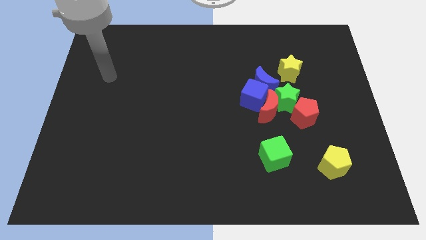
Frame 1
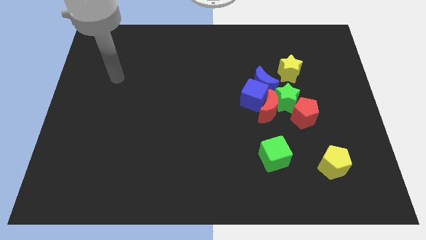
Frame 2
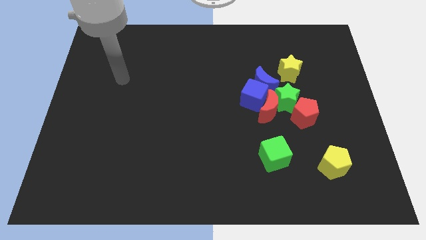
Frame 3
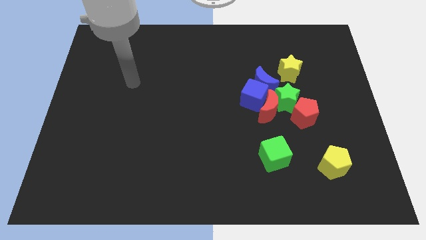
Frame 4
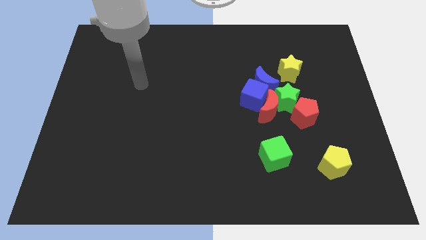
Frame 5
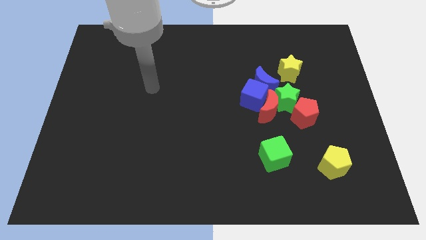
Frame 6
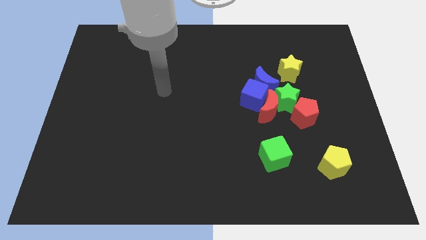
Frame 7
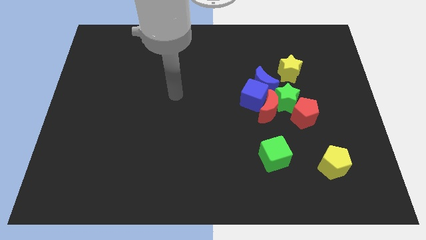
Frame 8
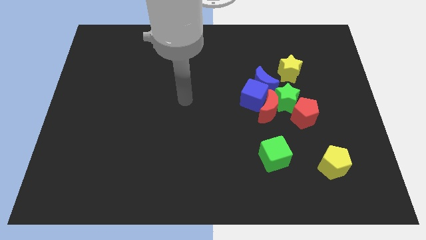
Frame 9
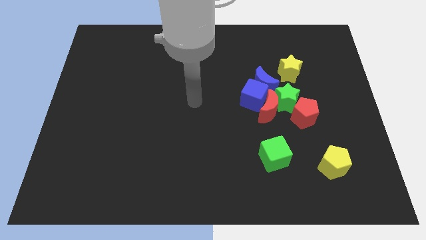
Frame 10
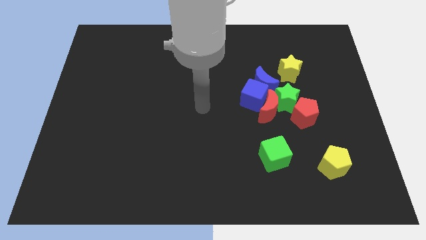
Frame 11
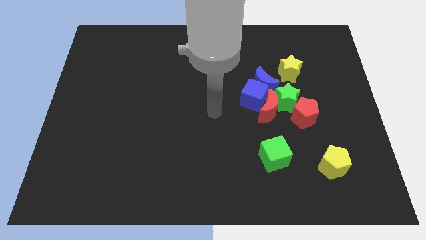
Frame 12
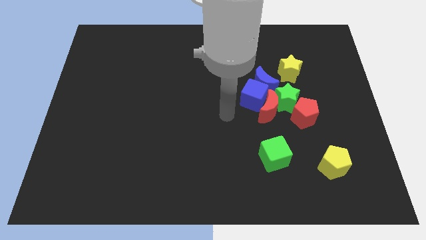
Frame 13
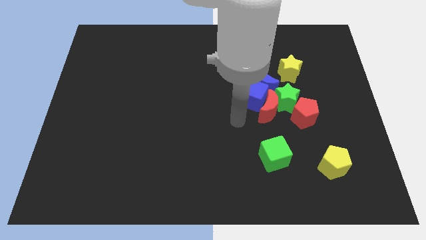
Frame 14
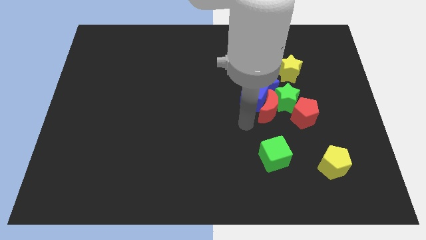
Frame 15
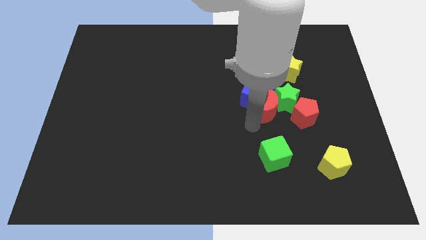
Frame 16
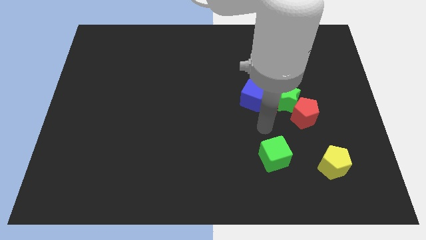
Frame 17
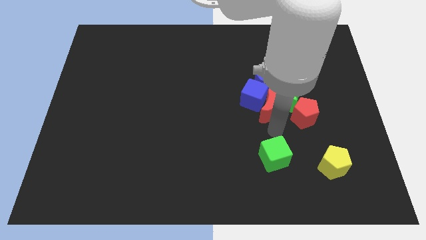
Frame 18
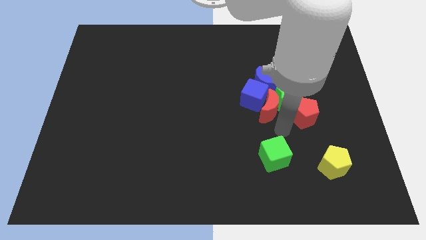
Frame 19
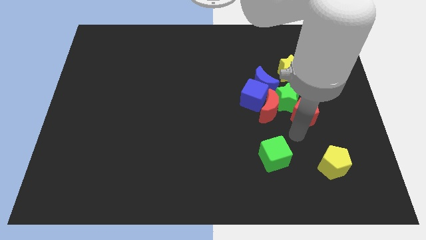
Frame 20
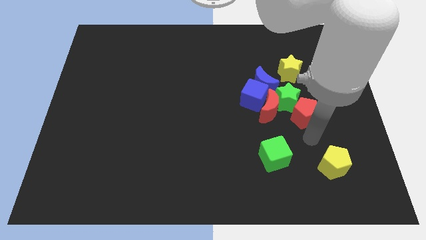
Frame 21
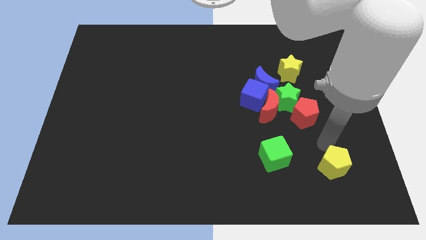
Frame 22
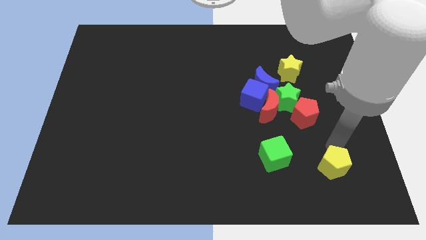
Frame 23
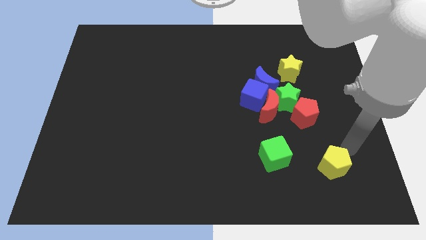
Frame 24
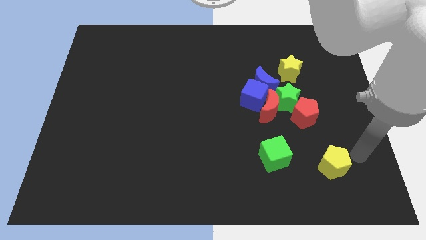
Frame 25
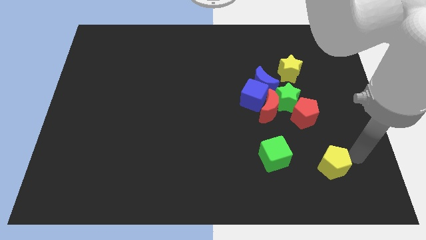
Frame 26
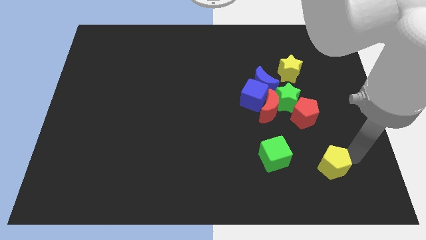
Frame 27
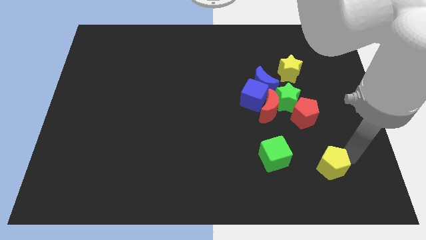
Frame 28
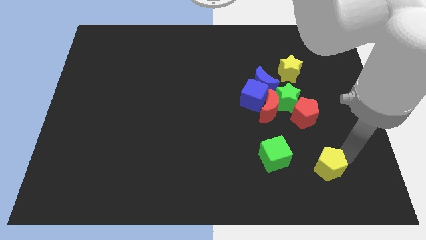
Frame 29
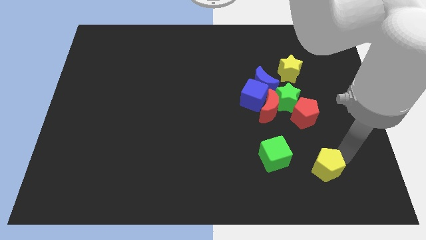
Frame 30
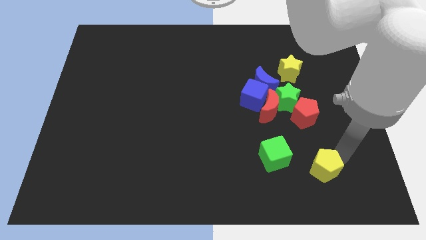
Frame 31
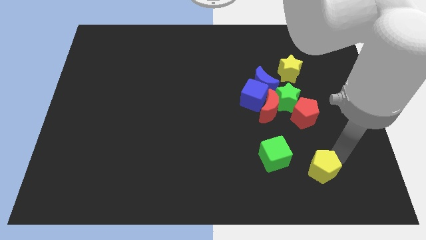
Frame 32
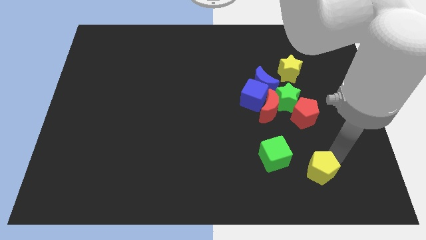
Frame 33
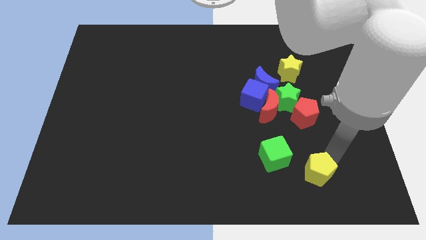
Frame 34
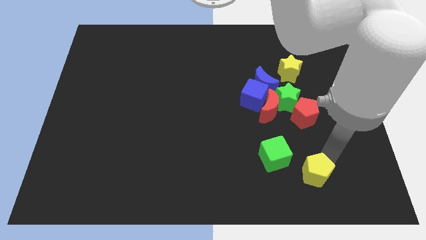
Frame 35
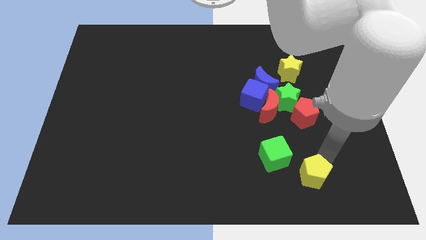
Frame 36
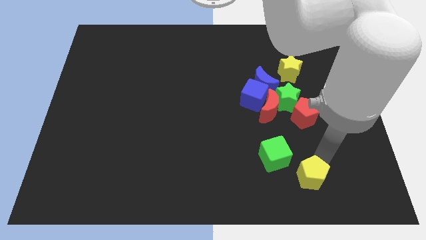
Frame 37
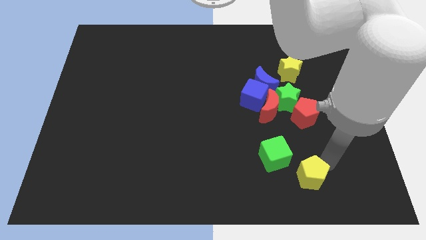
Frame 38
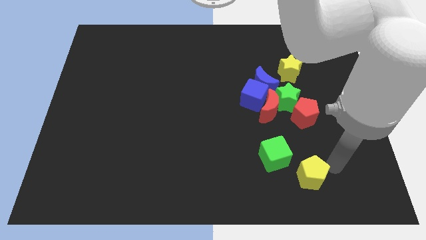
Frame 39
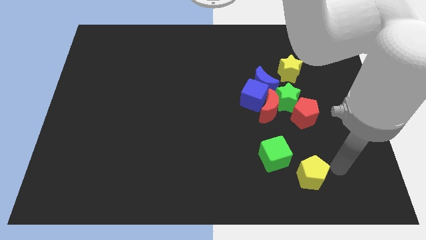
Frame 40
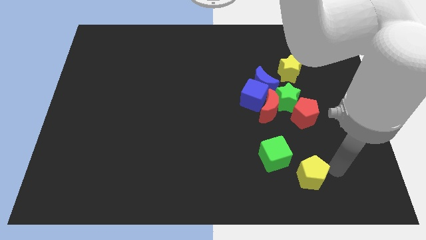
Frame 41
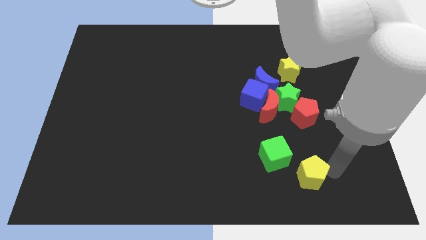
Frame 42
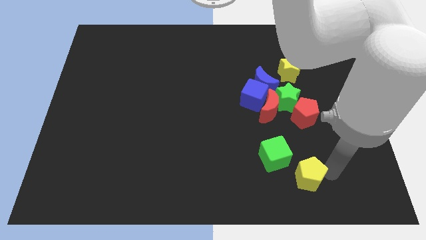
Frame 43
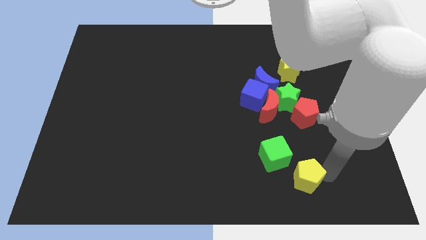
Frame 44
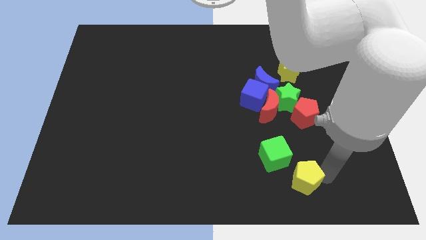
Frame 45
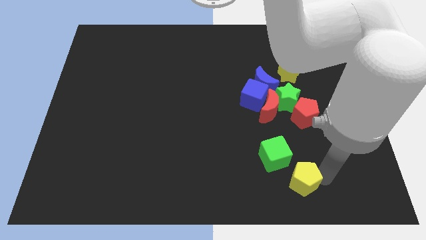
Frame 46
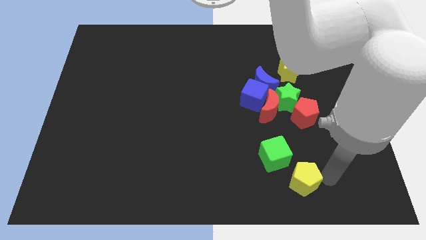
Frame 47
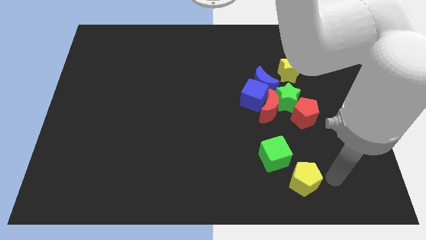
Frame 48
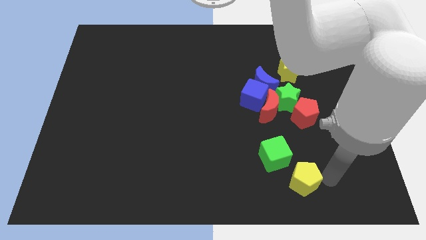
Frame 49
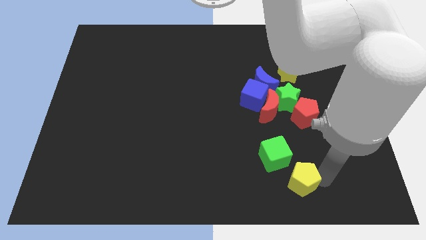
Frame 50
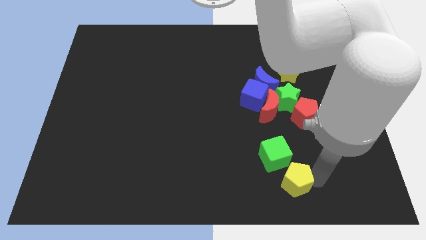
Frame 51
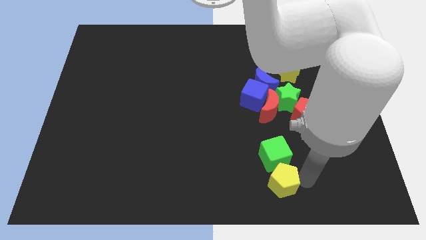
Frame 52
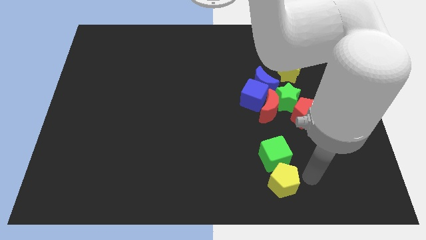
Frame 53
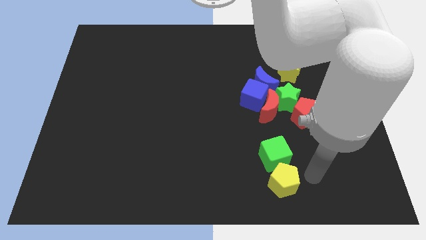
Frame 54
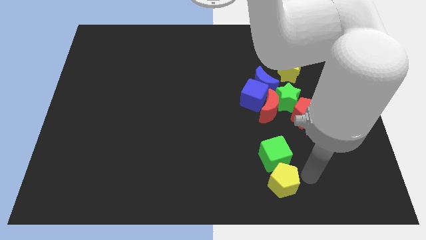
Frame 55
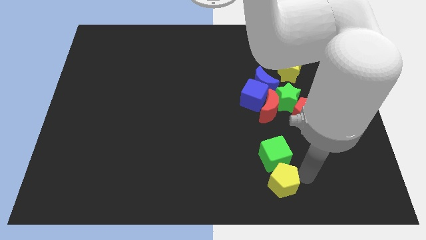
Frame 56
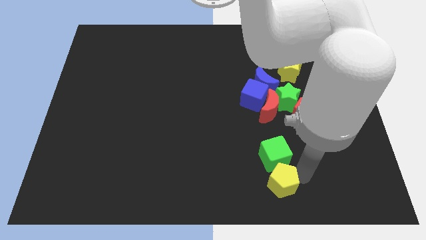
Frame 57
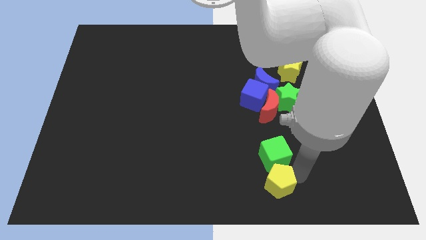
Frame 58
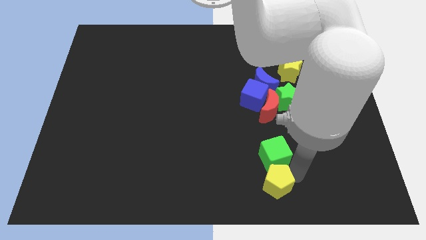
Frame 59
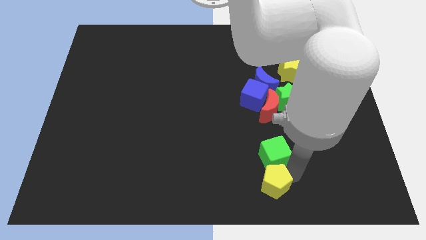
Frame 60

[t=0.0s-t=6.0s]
slide the yellow pentagon to the bottom side

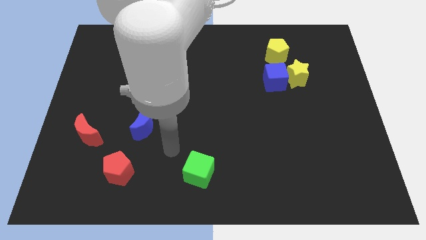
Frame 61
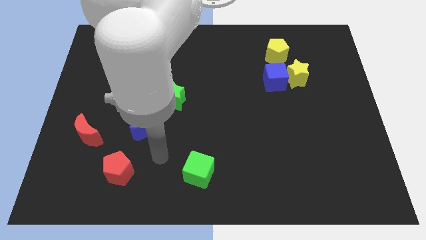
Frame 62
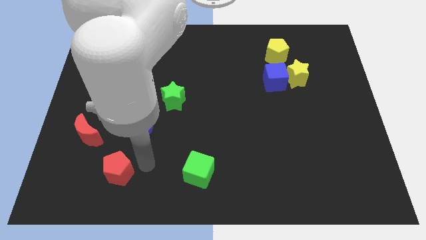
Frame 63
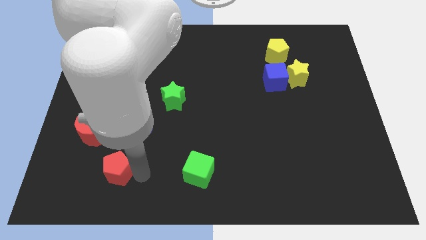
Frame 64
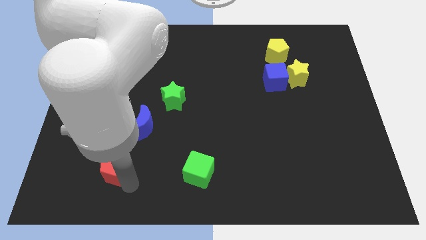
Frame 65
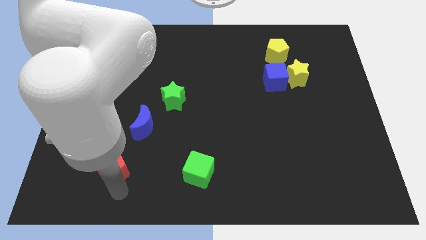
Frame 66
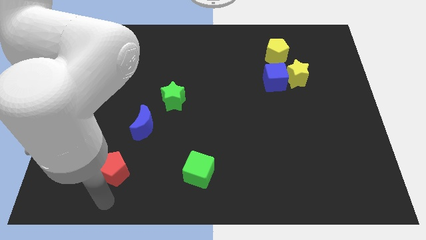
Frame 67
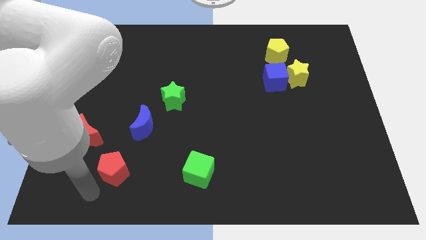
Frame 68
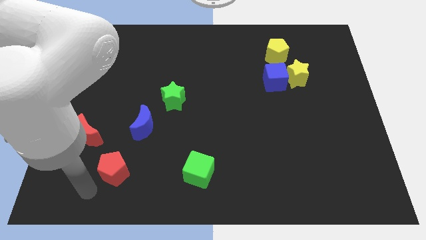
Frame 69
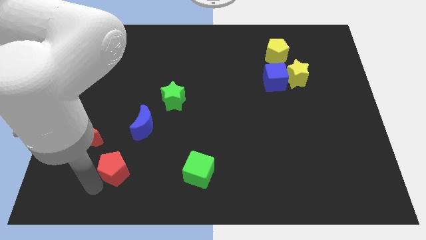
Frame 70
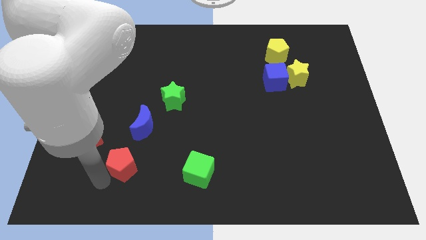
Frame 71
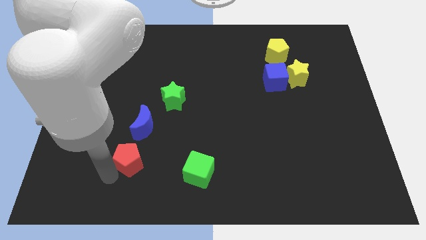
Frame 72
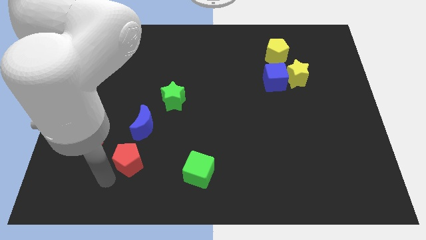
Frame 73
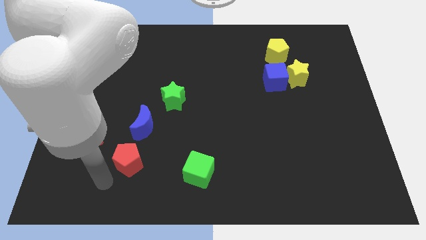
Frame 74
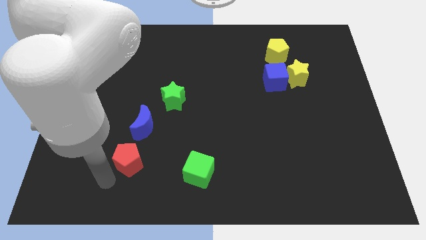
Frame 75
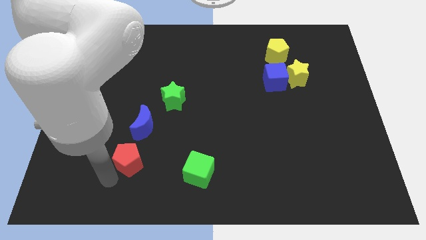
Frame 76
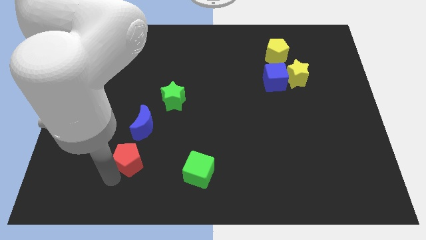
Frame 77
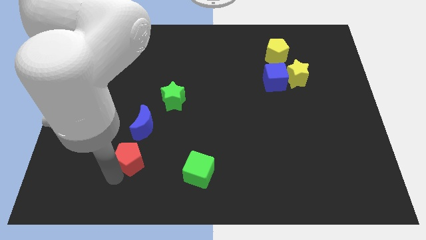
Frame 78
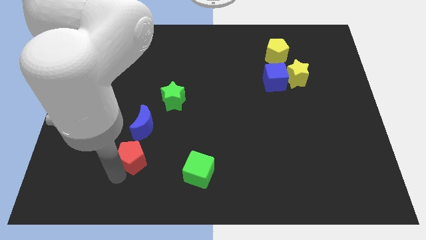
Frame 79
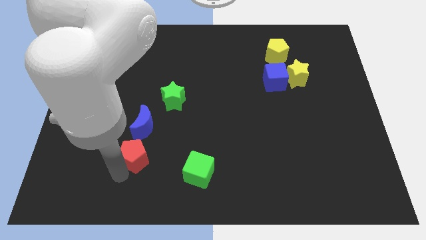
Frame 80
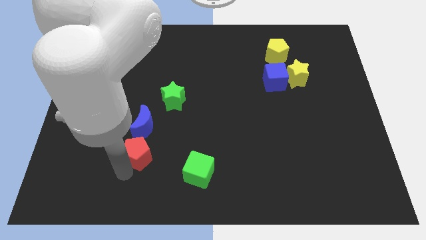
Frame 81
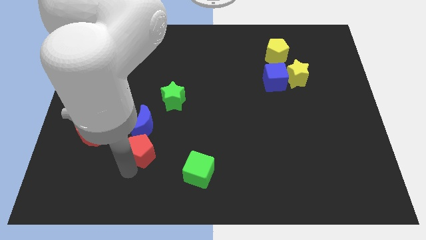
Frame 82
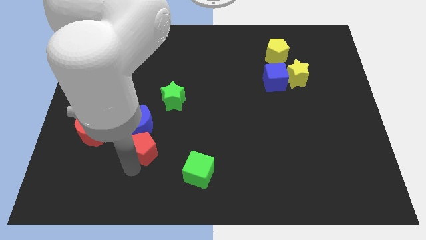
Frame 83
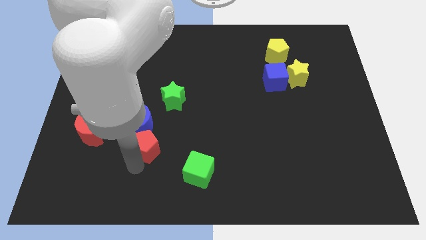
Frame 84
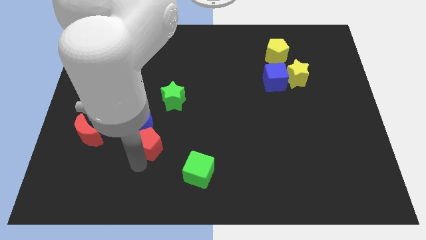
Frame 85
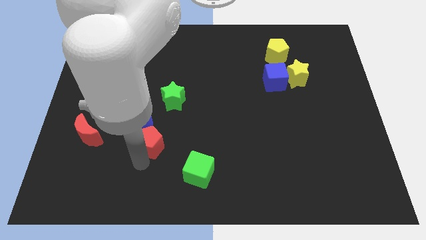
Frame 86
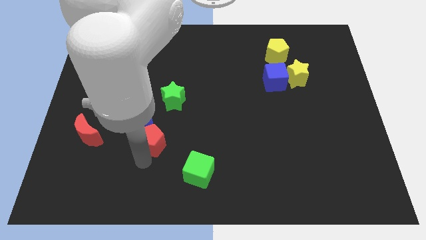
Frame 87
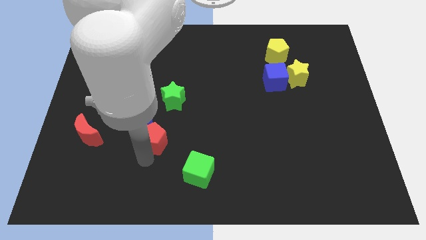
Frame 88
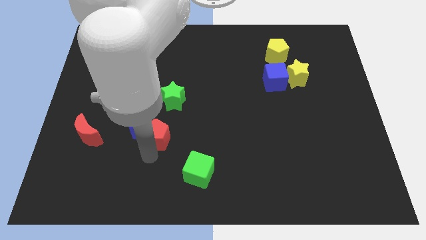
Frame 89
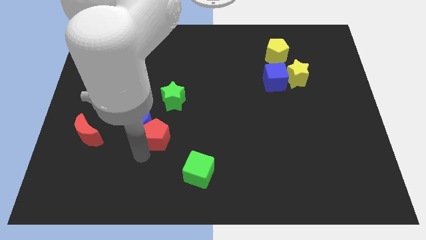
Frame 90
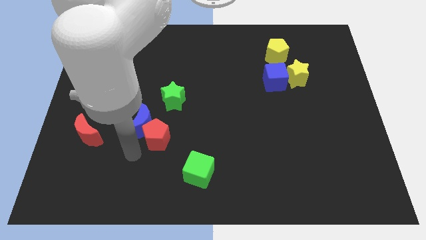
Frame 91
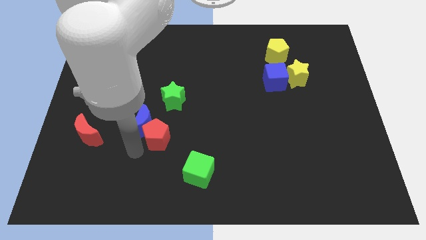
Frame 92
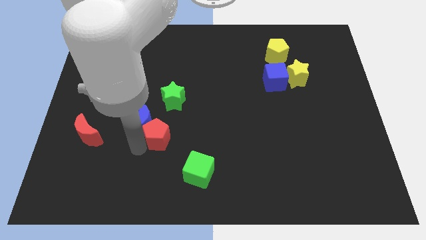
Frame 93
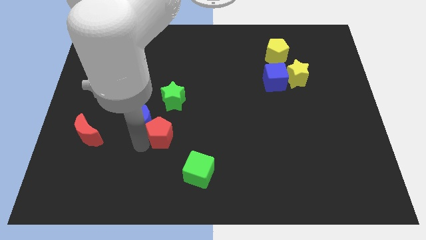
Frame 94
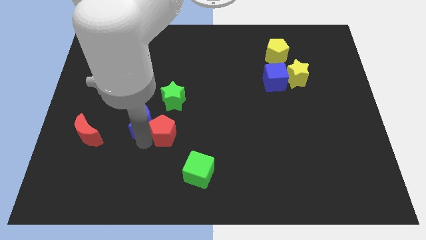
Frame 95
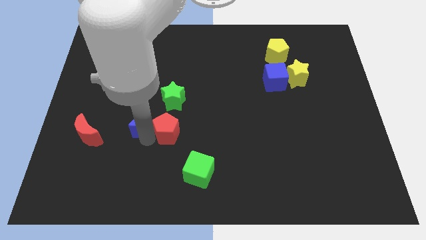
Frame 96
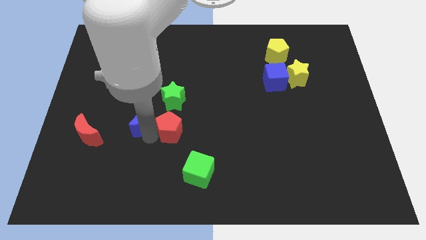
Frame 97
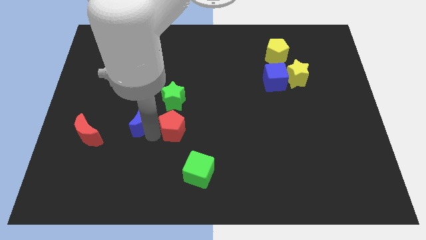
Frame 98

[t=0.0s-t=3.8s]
move the red pentagon to the middle
